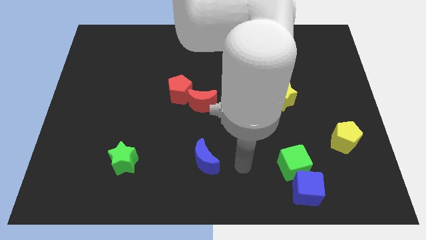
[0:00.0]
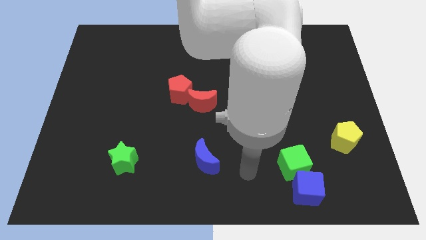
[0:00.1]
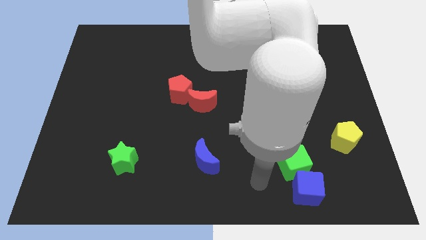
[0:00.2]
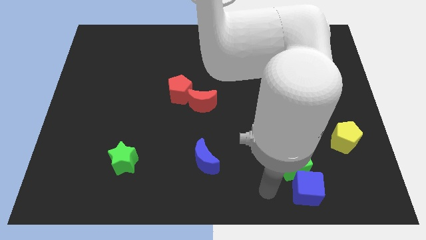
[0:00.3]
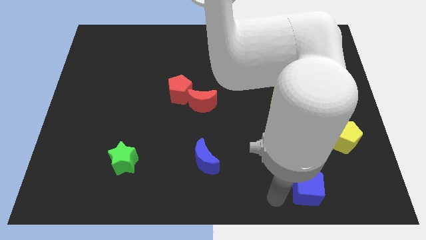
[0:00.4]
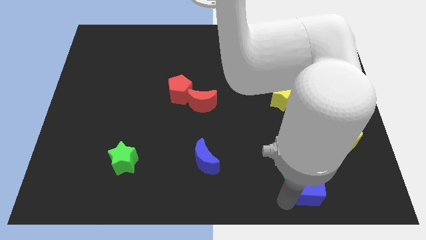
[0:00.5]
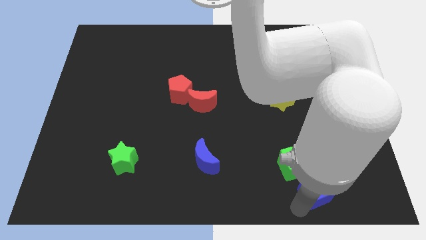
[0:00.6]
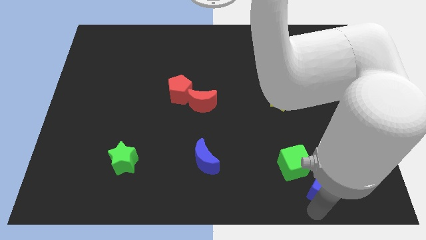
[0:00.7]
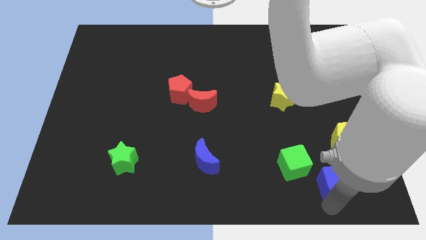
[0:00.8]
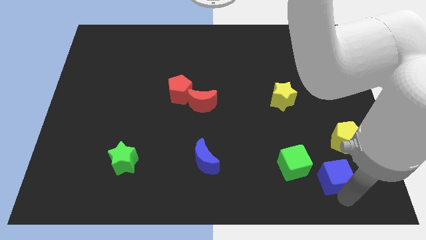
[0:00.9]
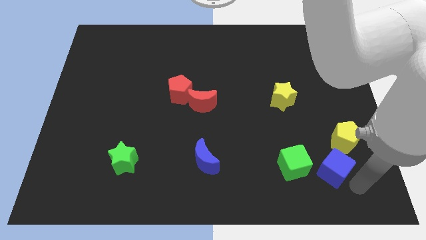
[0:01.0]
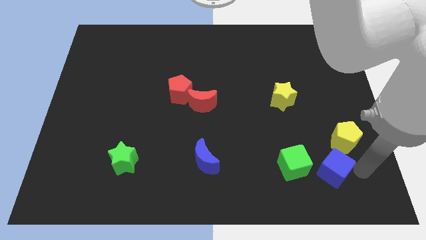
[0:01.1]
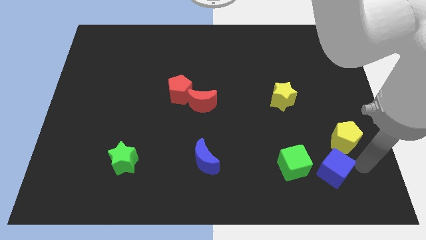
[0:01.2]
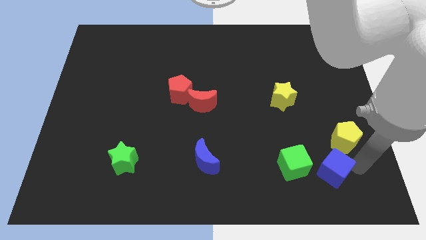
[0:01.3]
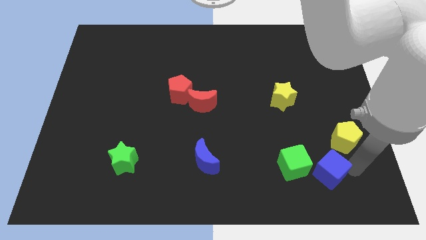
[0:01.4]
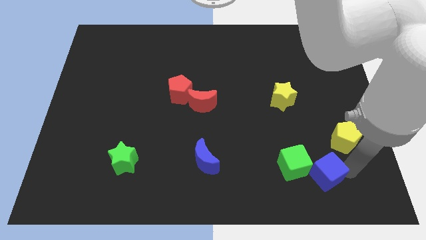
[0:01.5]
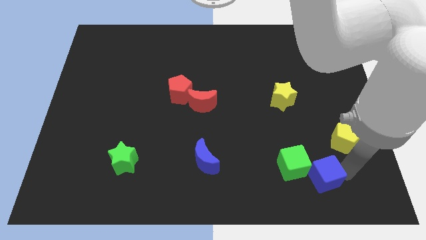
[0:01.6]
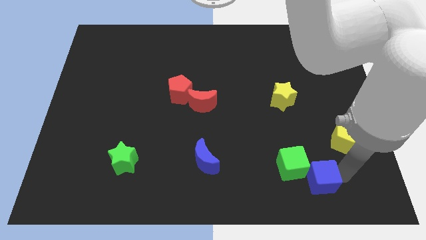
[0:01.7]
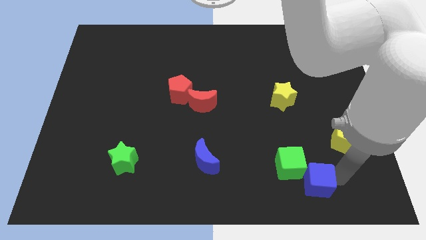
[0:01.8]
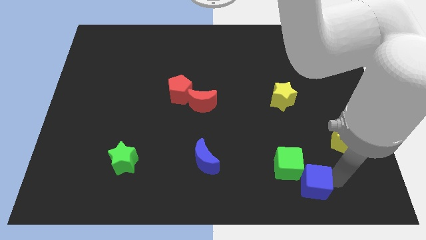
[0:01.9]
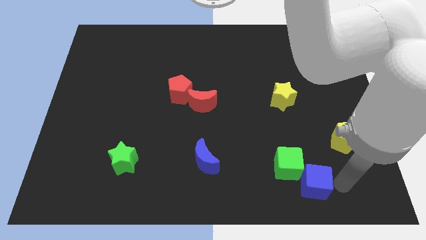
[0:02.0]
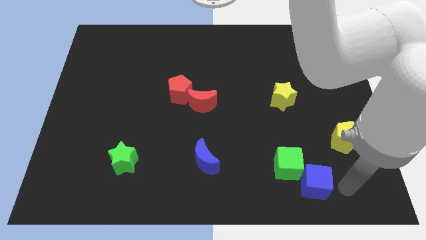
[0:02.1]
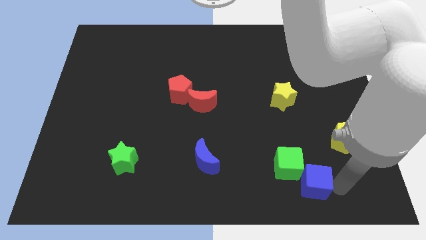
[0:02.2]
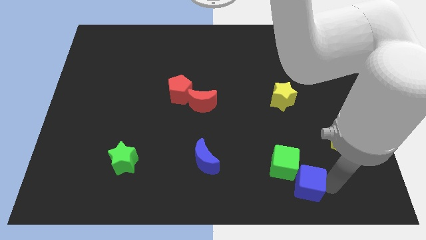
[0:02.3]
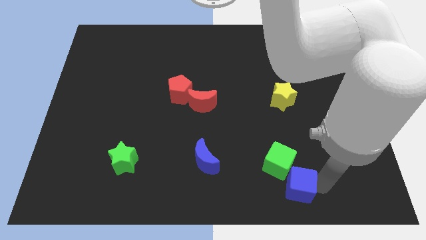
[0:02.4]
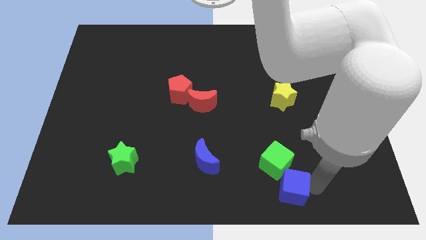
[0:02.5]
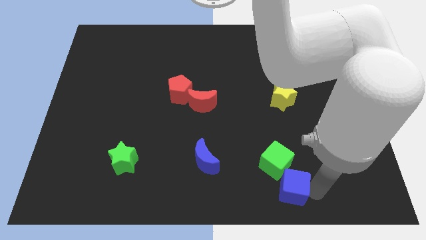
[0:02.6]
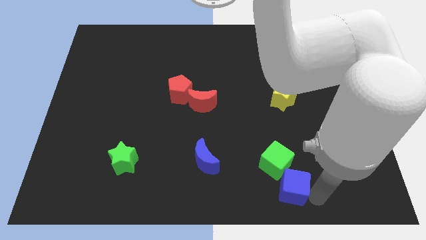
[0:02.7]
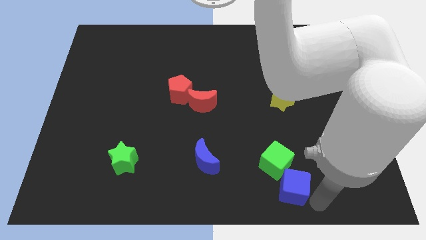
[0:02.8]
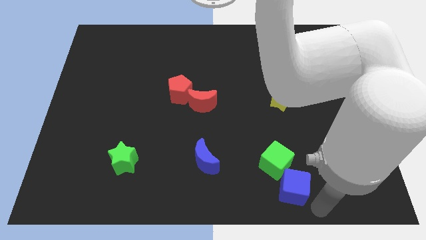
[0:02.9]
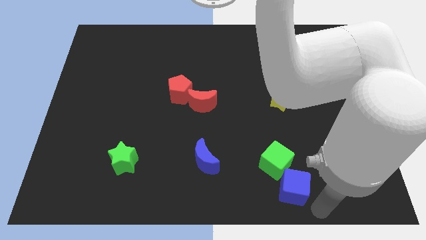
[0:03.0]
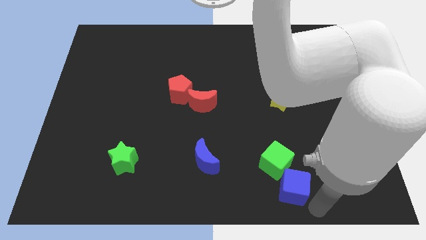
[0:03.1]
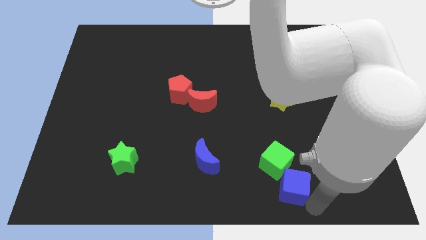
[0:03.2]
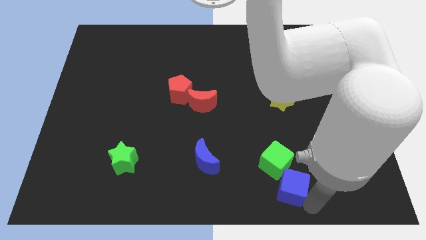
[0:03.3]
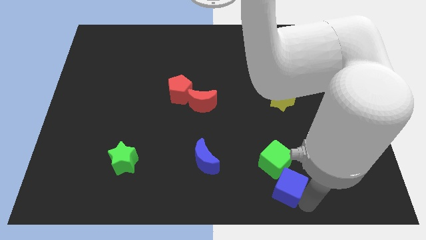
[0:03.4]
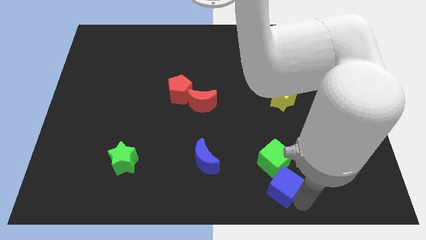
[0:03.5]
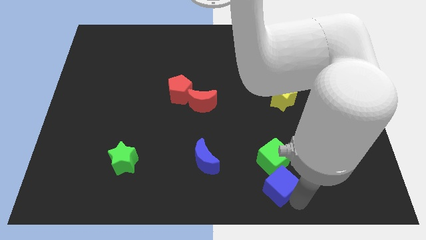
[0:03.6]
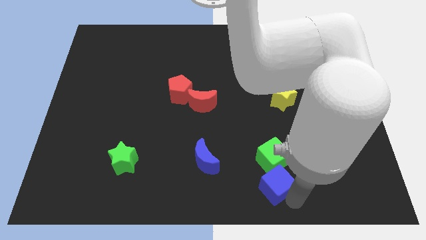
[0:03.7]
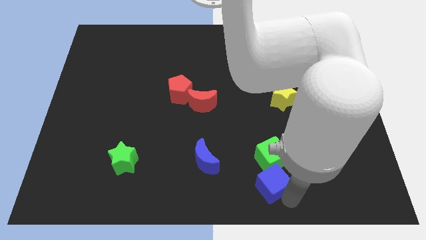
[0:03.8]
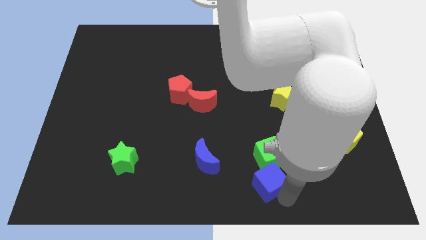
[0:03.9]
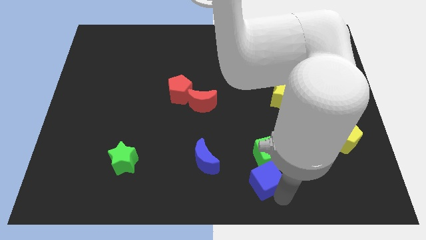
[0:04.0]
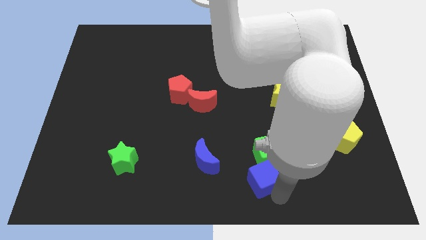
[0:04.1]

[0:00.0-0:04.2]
move the blue cube up and then left a bit

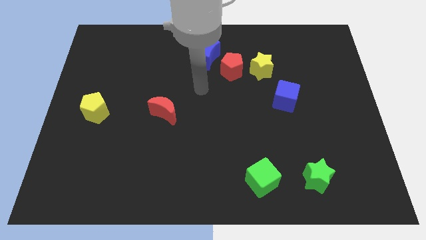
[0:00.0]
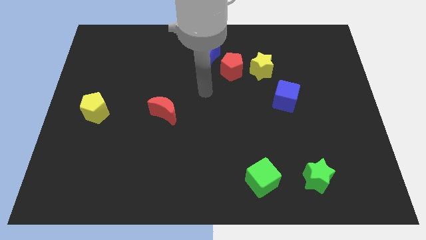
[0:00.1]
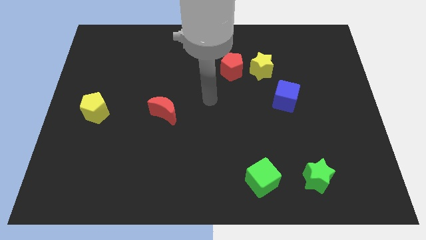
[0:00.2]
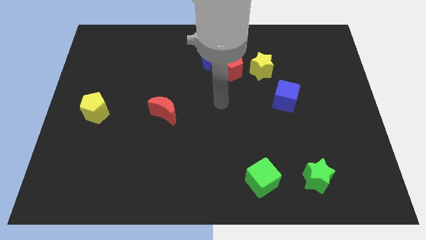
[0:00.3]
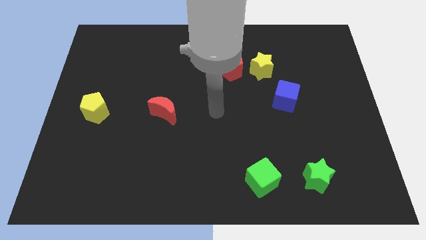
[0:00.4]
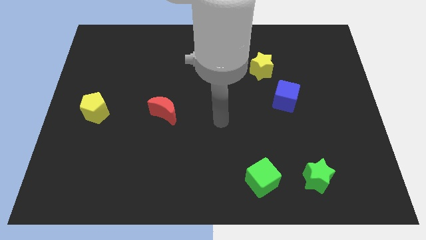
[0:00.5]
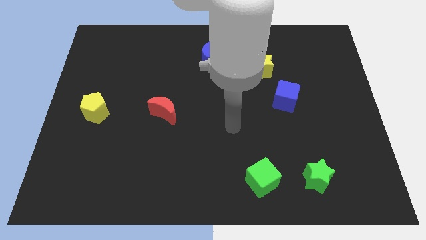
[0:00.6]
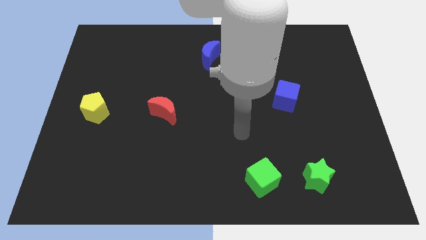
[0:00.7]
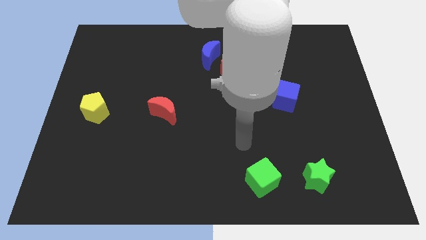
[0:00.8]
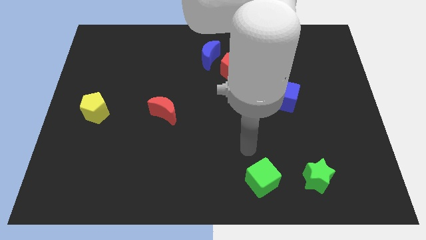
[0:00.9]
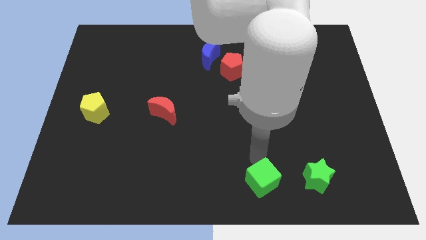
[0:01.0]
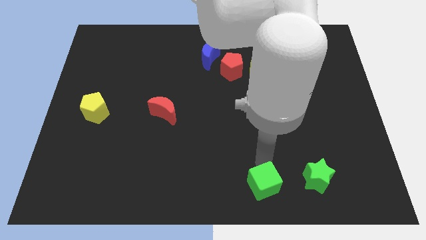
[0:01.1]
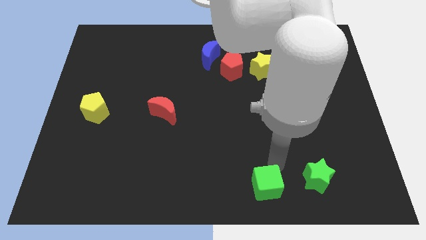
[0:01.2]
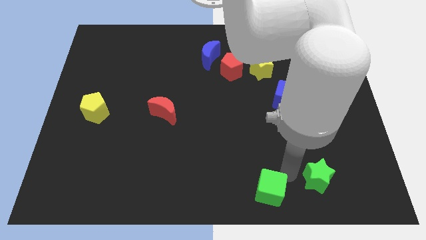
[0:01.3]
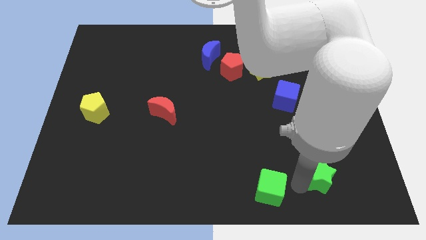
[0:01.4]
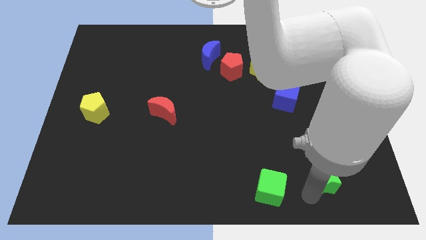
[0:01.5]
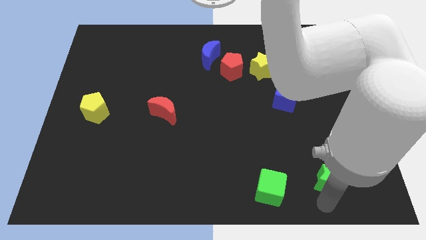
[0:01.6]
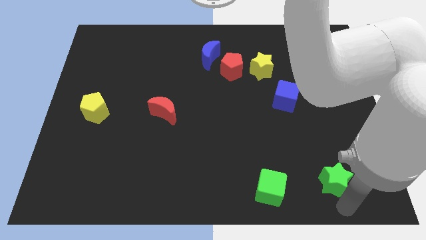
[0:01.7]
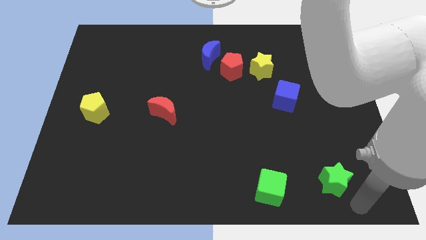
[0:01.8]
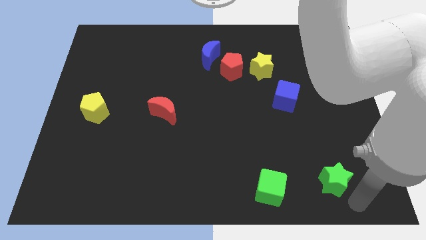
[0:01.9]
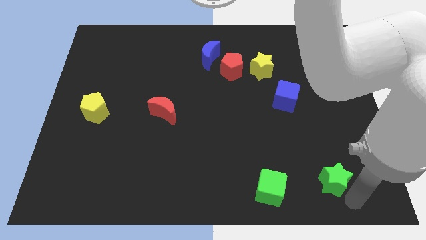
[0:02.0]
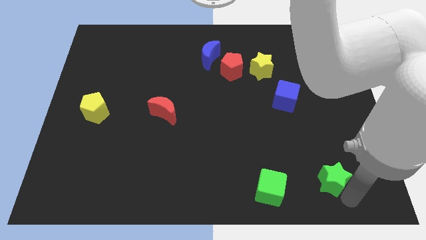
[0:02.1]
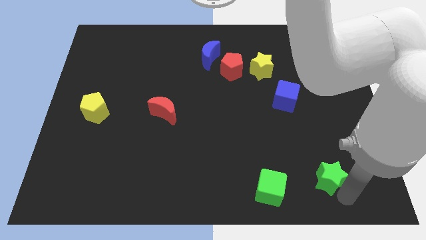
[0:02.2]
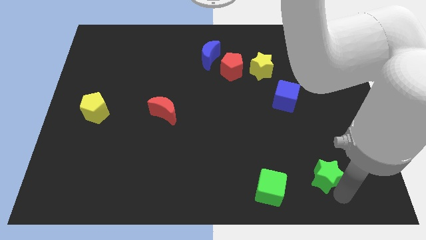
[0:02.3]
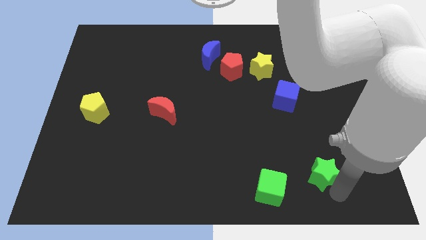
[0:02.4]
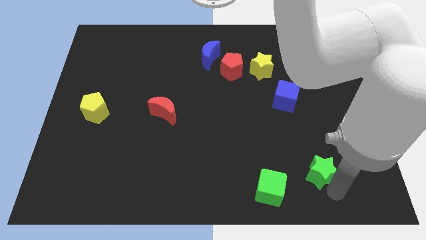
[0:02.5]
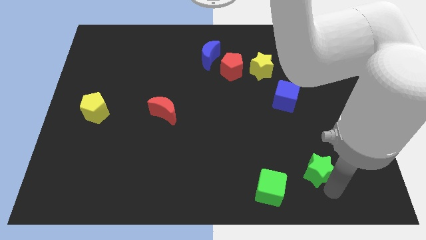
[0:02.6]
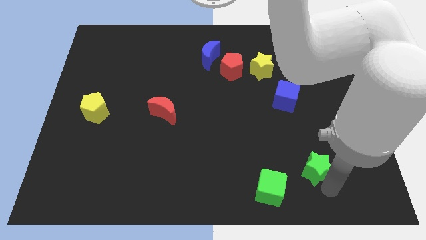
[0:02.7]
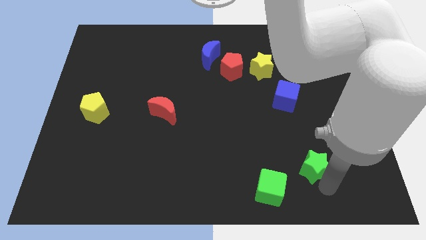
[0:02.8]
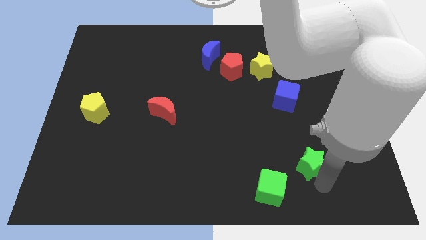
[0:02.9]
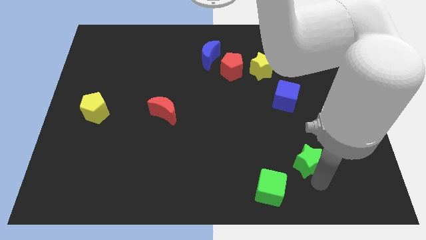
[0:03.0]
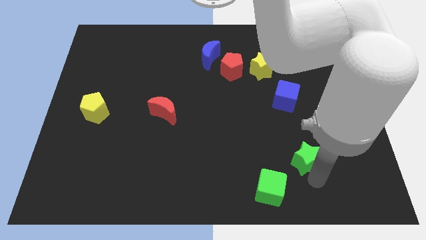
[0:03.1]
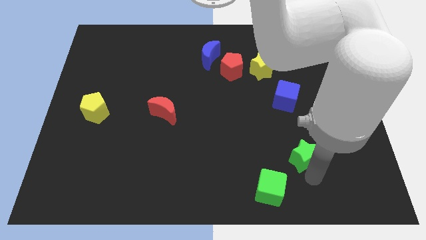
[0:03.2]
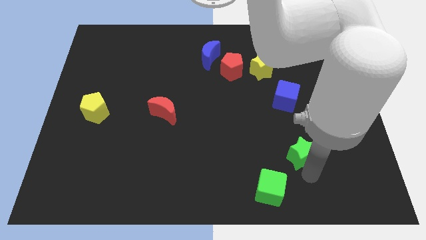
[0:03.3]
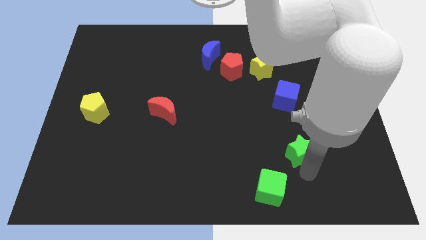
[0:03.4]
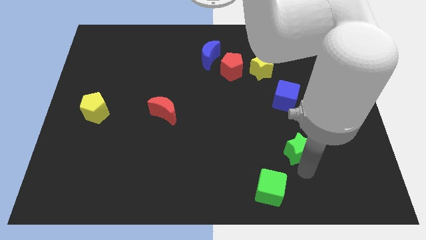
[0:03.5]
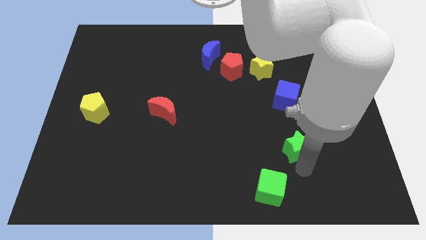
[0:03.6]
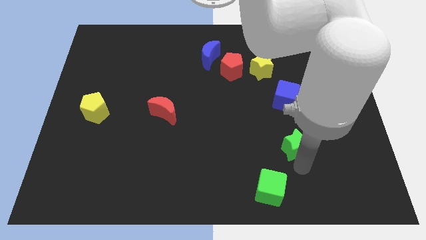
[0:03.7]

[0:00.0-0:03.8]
push the green star slightly up
